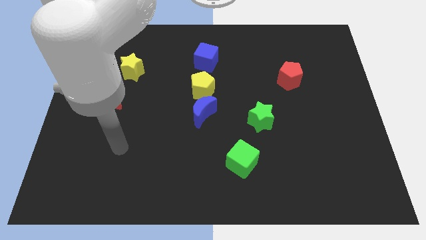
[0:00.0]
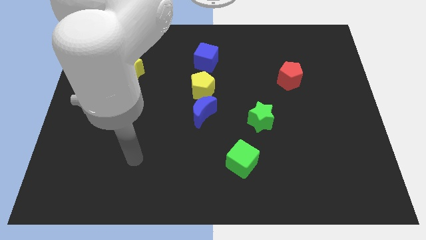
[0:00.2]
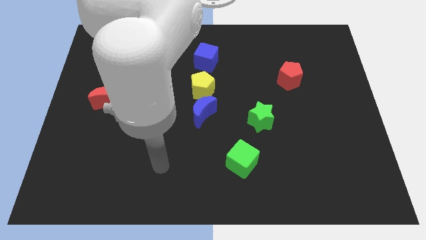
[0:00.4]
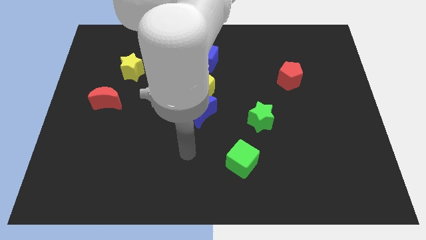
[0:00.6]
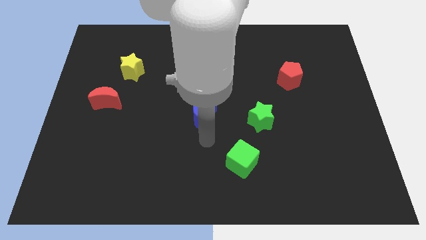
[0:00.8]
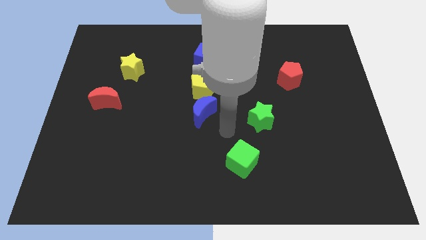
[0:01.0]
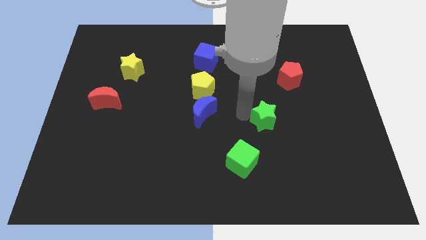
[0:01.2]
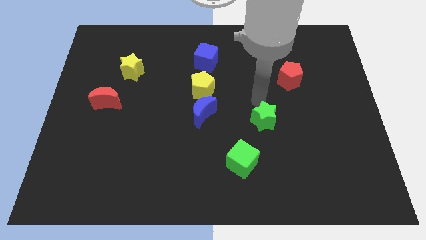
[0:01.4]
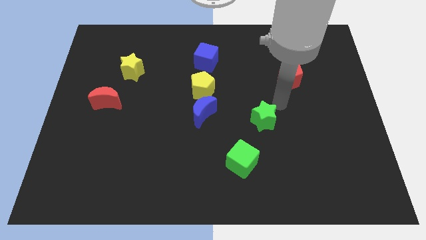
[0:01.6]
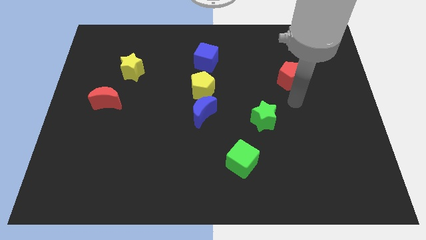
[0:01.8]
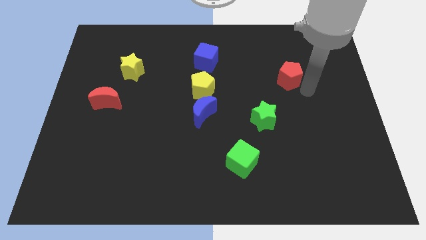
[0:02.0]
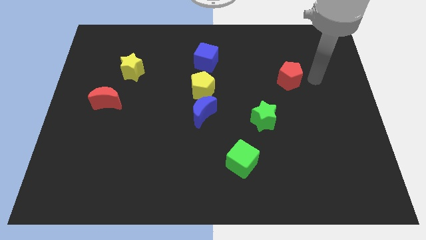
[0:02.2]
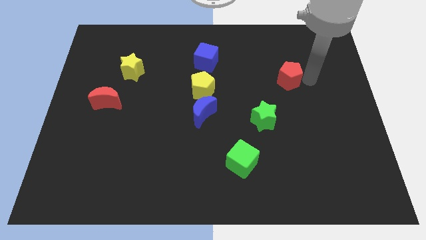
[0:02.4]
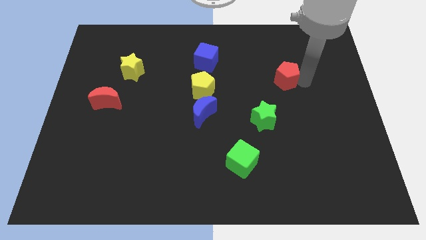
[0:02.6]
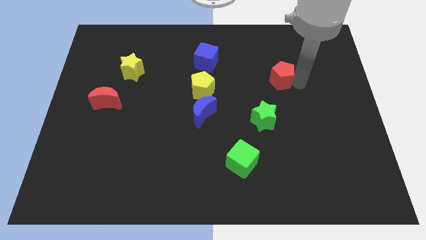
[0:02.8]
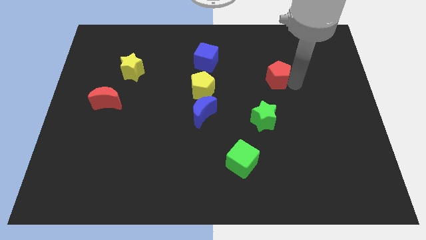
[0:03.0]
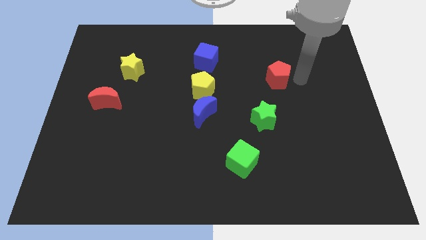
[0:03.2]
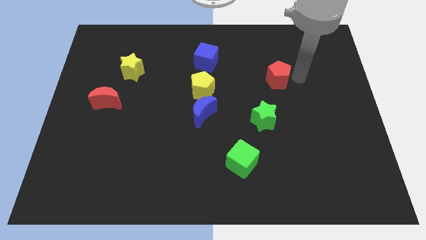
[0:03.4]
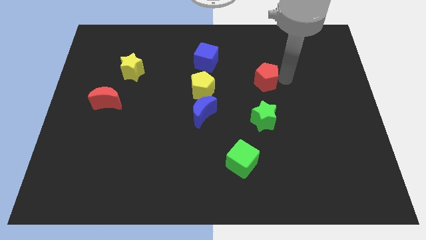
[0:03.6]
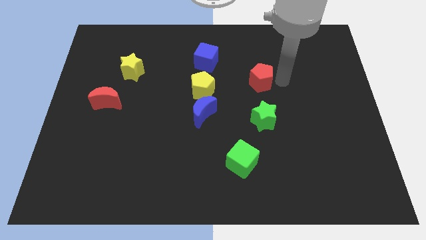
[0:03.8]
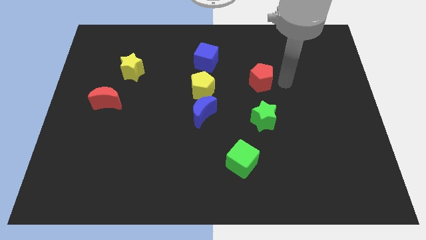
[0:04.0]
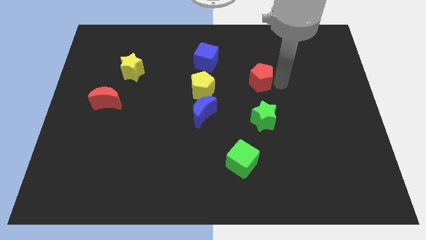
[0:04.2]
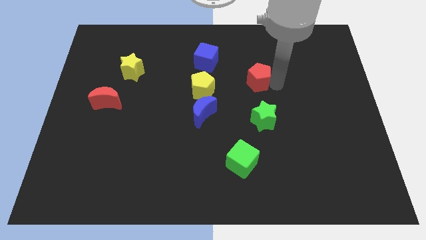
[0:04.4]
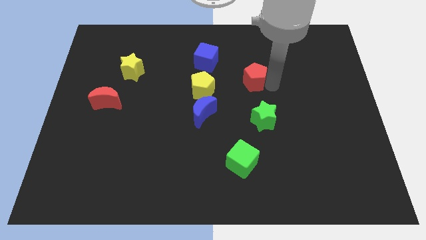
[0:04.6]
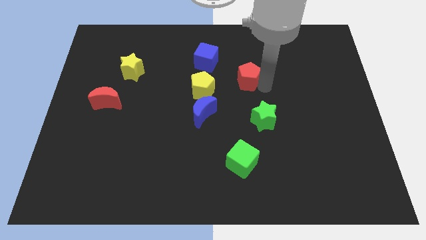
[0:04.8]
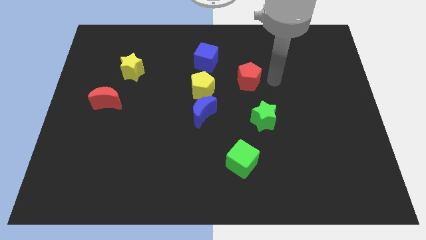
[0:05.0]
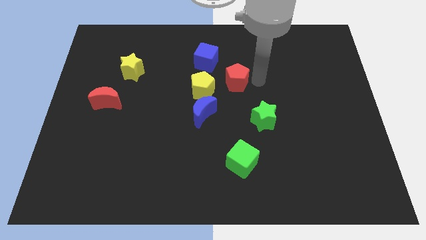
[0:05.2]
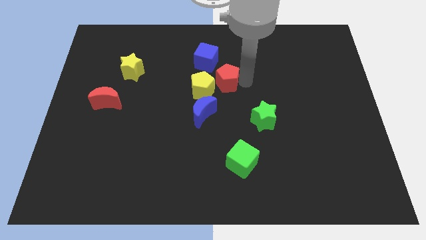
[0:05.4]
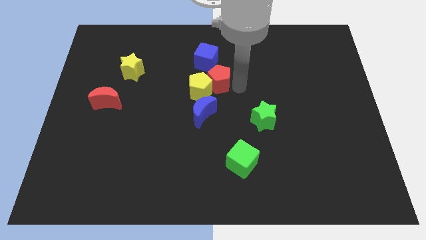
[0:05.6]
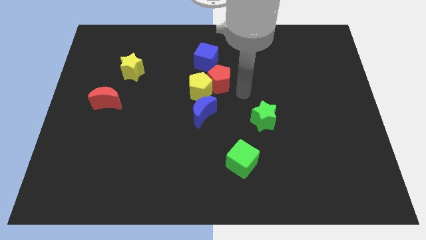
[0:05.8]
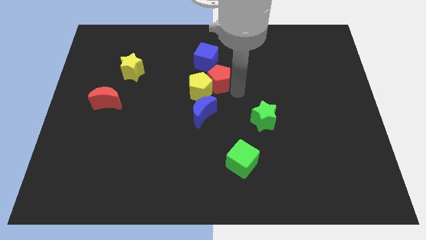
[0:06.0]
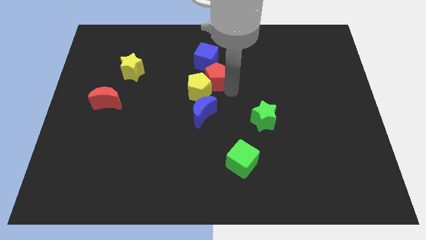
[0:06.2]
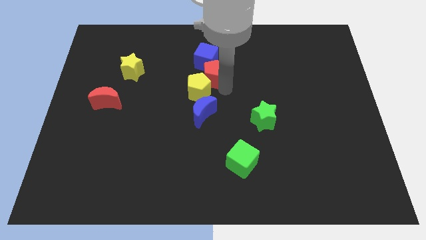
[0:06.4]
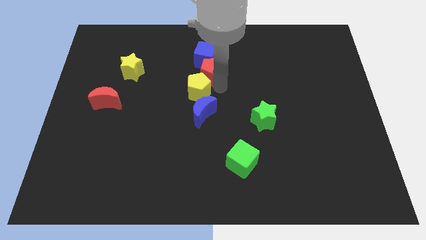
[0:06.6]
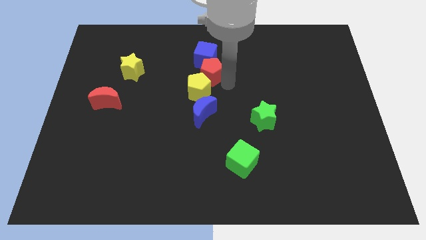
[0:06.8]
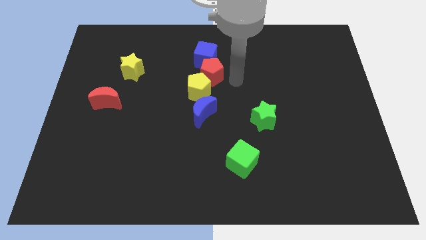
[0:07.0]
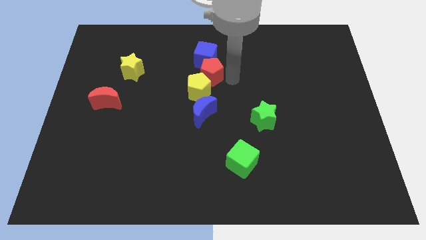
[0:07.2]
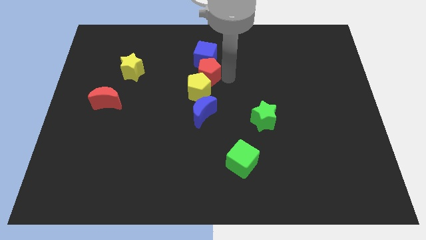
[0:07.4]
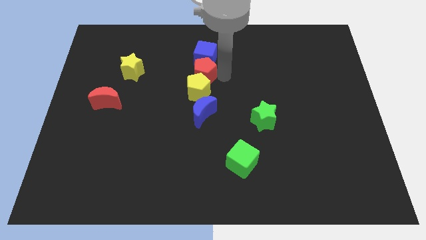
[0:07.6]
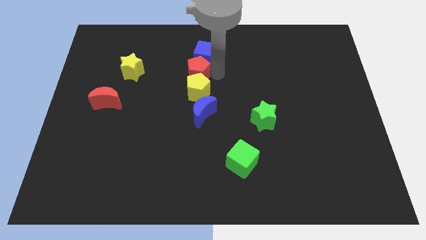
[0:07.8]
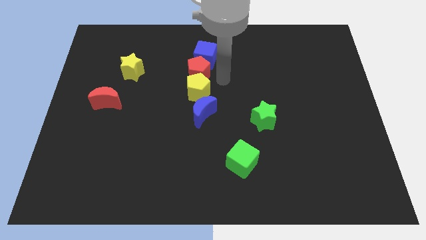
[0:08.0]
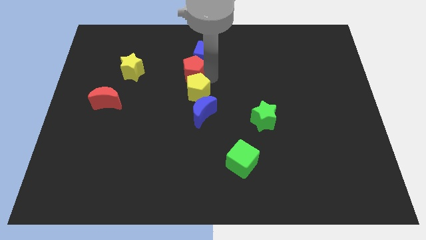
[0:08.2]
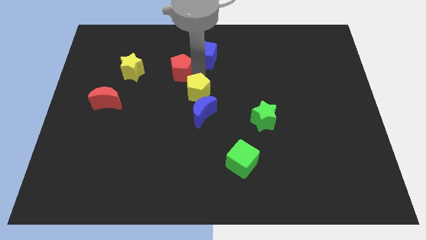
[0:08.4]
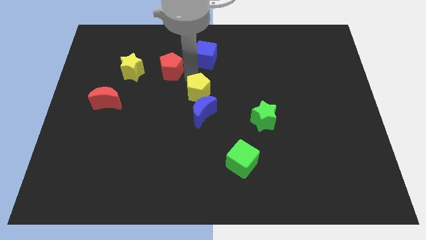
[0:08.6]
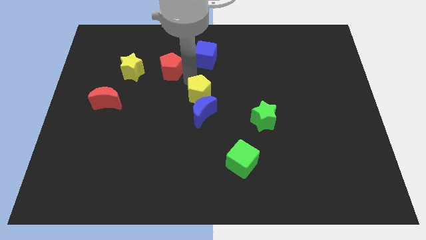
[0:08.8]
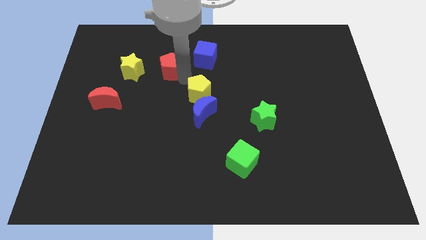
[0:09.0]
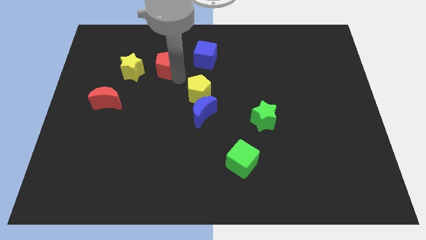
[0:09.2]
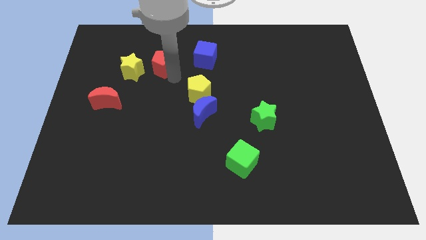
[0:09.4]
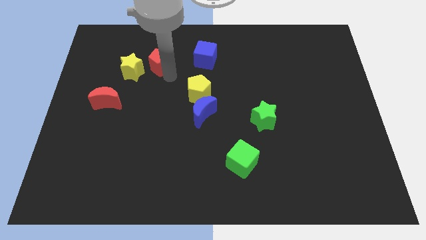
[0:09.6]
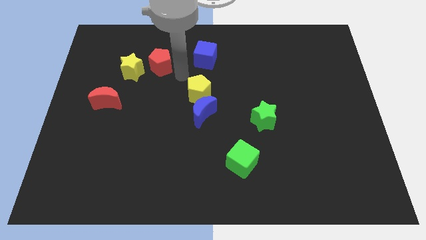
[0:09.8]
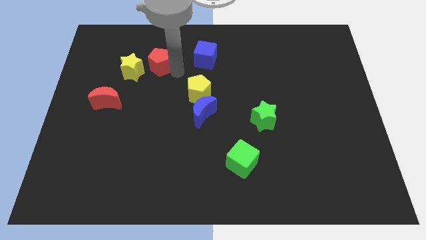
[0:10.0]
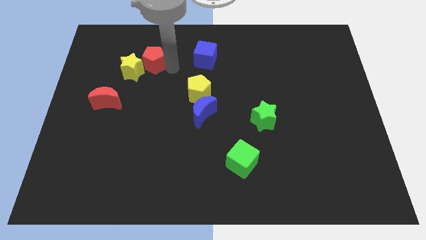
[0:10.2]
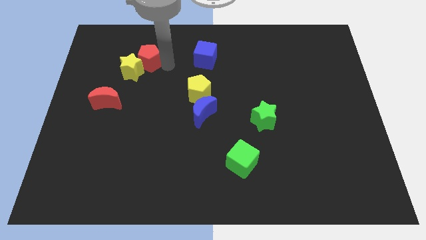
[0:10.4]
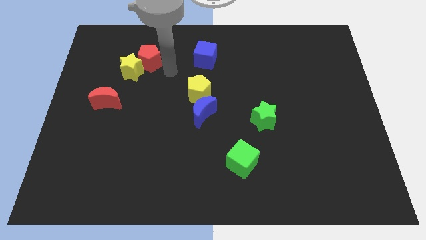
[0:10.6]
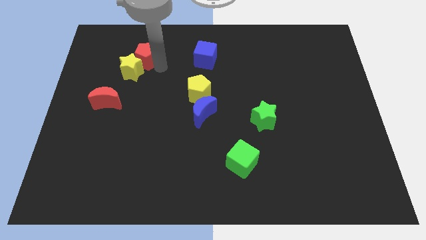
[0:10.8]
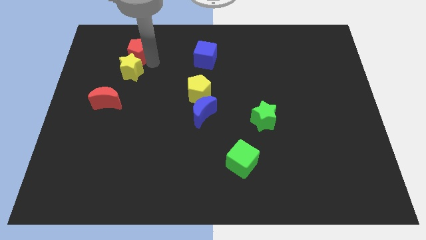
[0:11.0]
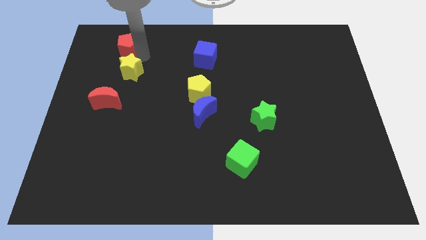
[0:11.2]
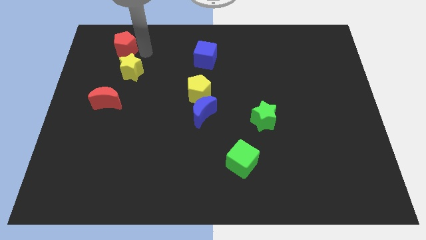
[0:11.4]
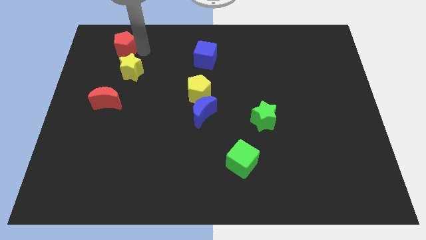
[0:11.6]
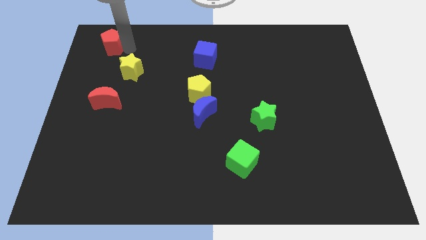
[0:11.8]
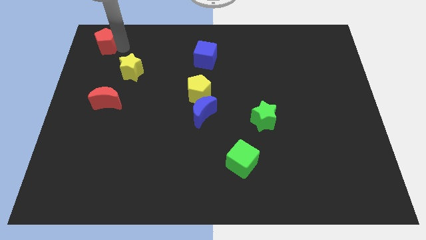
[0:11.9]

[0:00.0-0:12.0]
slide the red pentagon to the upper left corner
